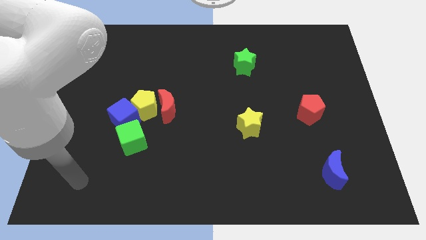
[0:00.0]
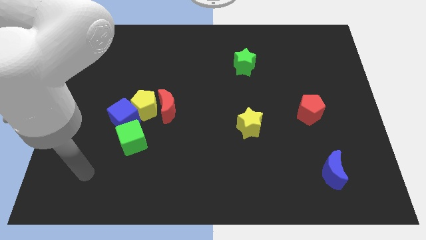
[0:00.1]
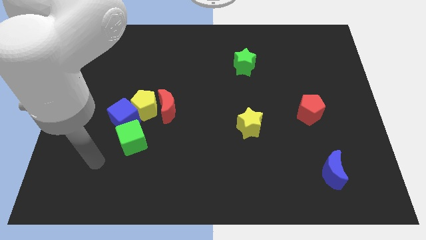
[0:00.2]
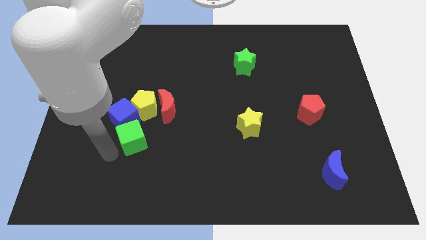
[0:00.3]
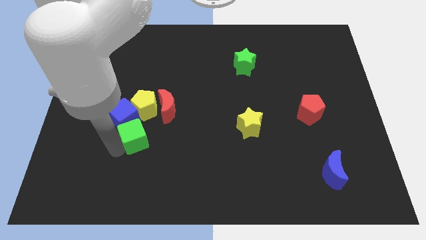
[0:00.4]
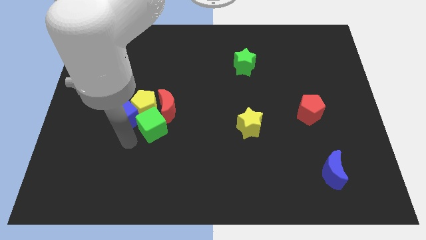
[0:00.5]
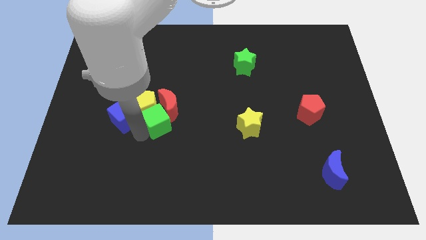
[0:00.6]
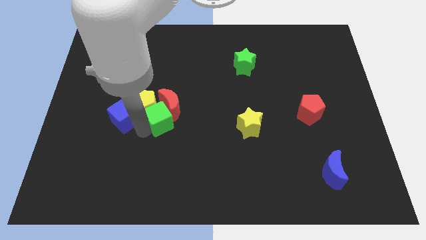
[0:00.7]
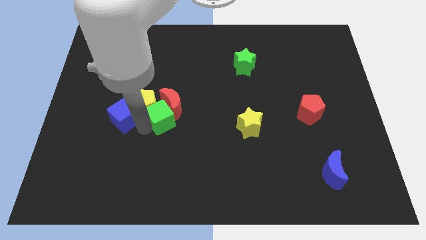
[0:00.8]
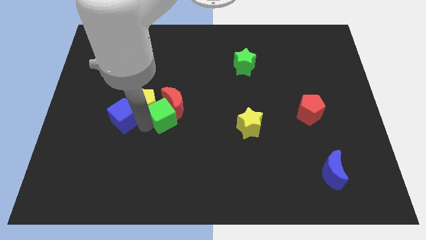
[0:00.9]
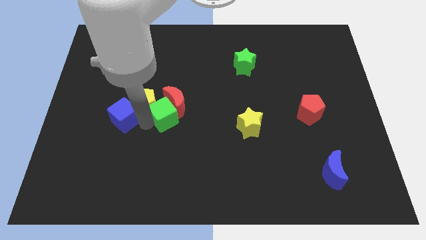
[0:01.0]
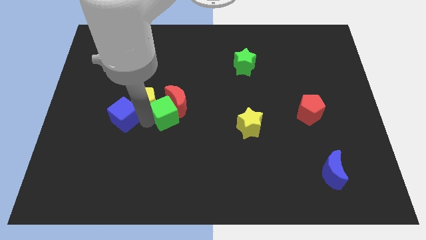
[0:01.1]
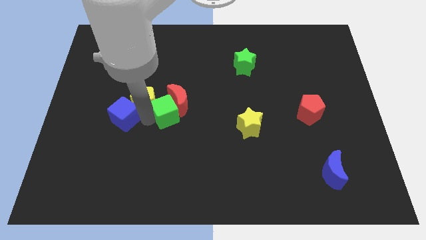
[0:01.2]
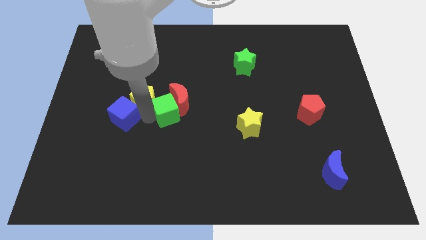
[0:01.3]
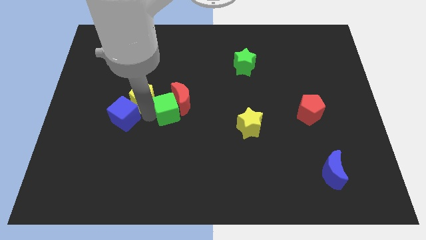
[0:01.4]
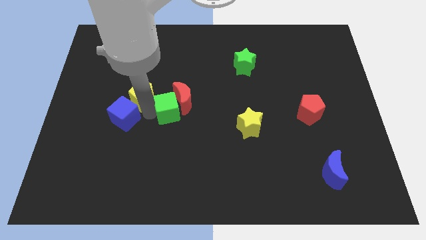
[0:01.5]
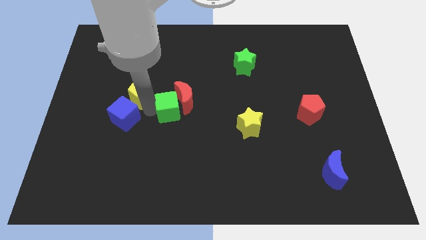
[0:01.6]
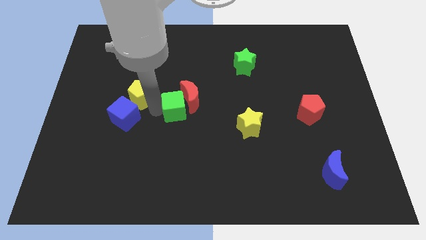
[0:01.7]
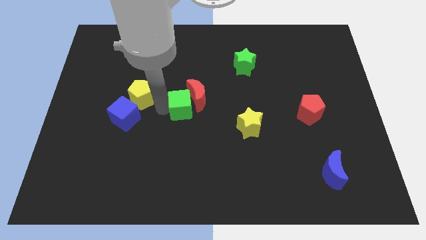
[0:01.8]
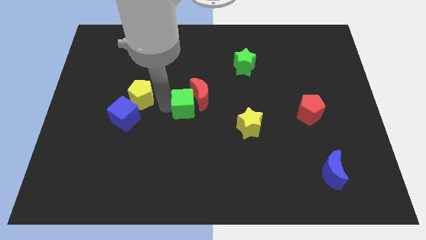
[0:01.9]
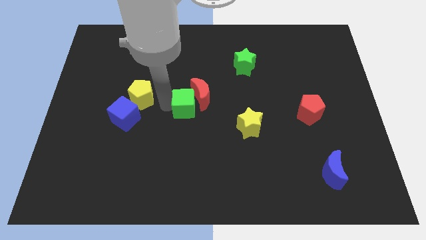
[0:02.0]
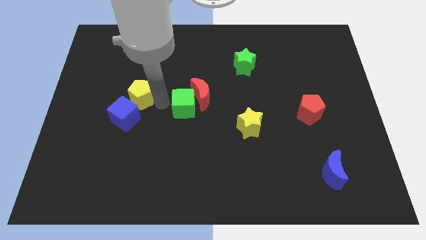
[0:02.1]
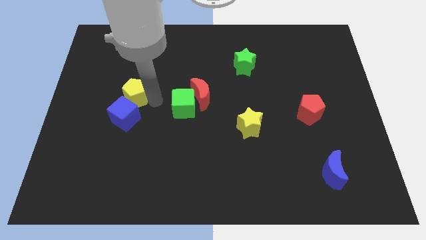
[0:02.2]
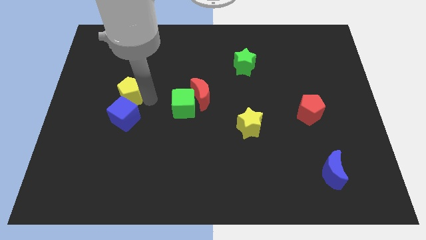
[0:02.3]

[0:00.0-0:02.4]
pull the yellow pentagon apart from the clump

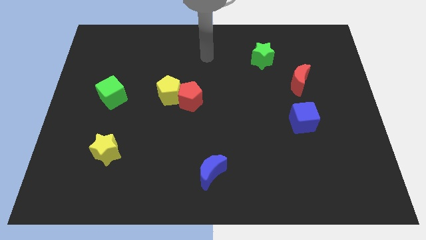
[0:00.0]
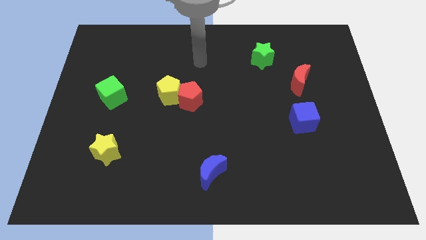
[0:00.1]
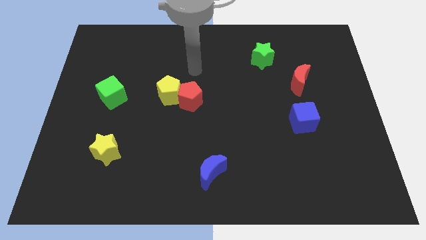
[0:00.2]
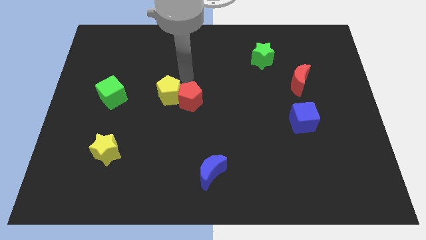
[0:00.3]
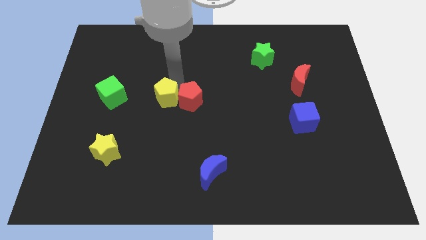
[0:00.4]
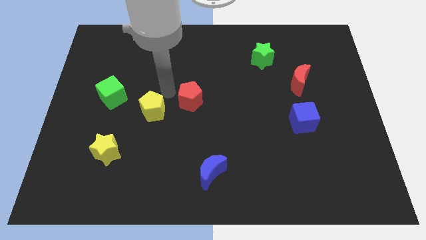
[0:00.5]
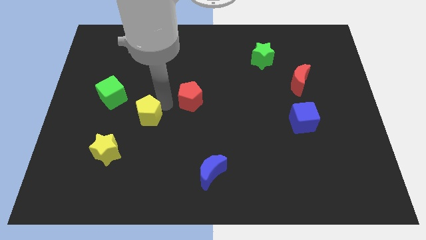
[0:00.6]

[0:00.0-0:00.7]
separate the red pentagon from the yellow pentagon

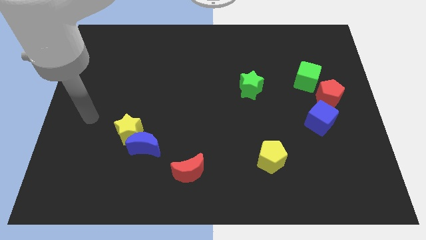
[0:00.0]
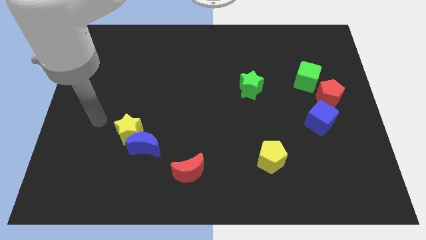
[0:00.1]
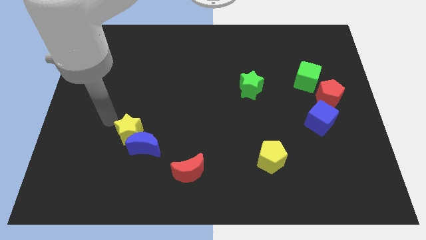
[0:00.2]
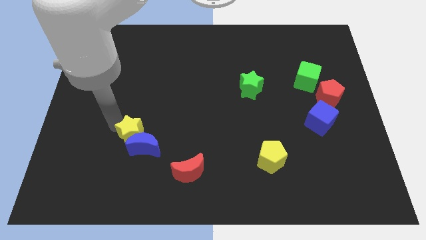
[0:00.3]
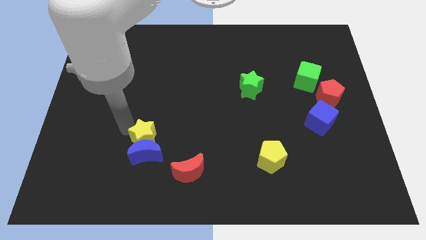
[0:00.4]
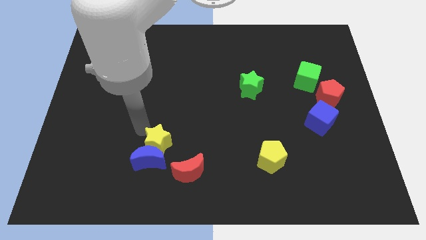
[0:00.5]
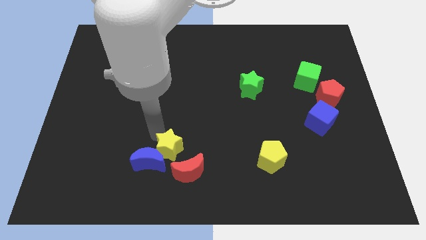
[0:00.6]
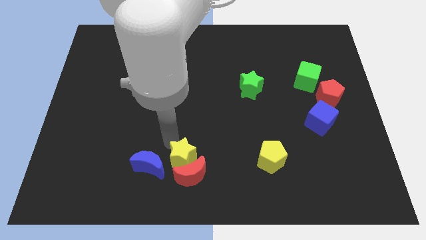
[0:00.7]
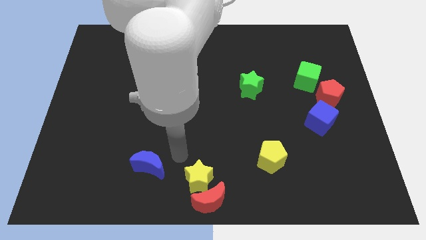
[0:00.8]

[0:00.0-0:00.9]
move the blue moon away from the yellow star

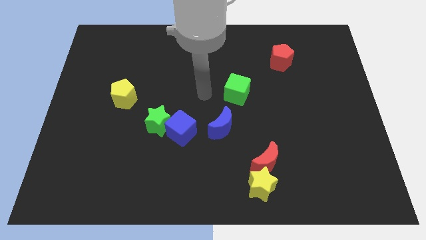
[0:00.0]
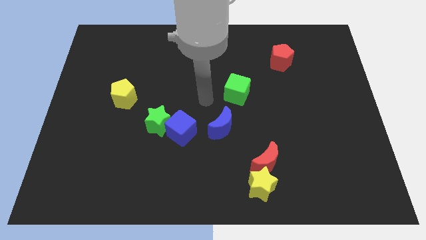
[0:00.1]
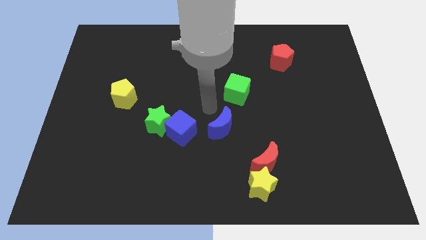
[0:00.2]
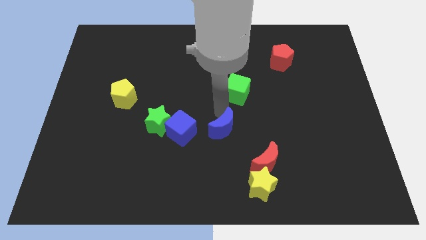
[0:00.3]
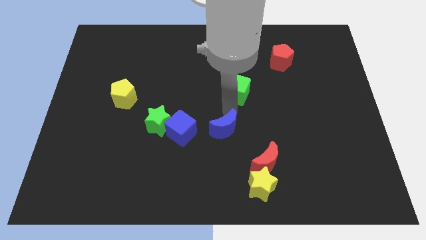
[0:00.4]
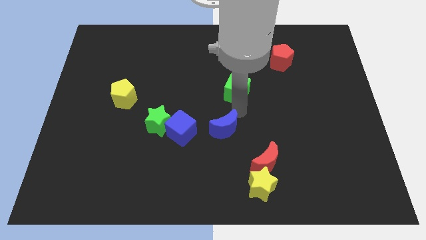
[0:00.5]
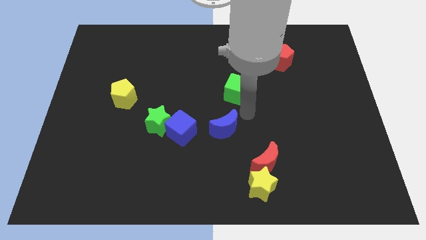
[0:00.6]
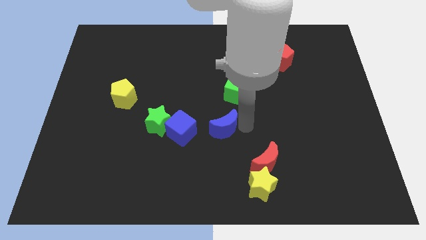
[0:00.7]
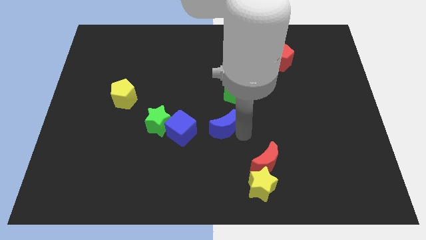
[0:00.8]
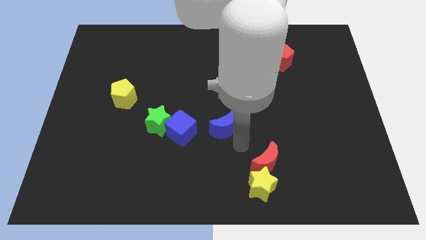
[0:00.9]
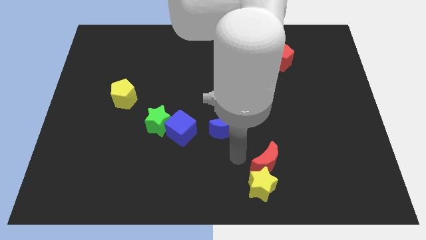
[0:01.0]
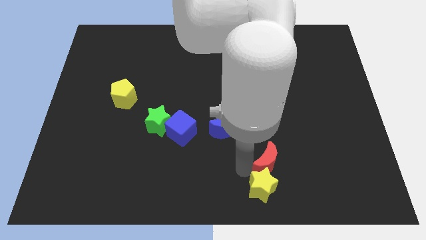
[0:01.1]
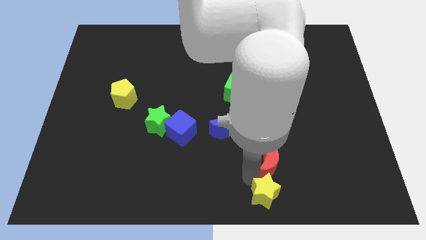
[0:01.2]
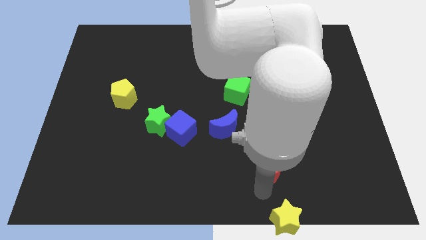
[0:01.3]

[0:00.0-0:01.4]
separate the red moon from the yellow star

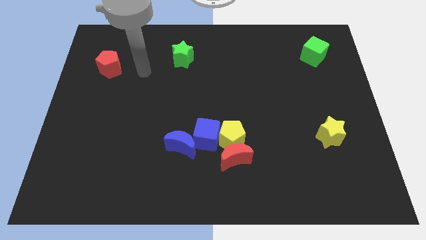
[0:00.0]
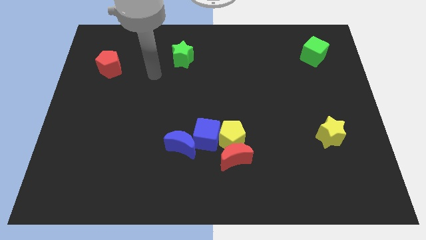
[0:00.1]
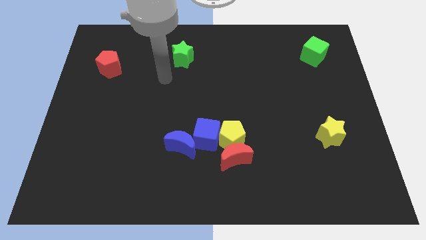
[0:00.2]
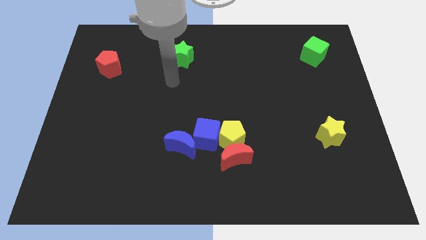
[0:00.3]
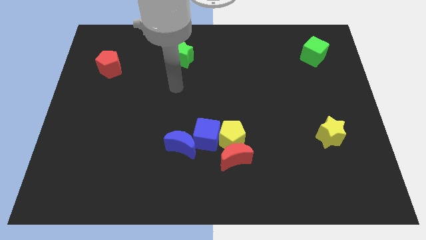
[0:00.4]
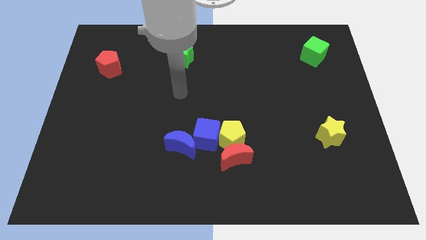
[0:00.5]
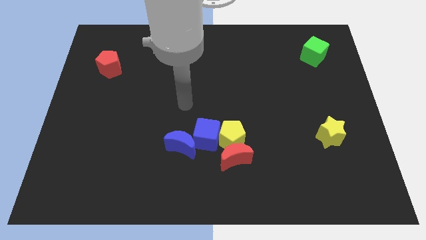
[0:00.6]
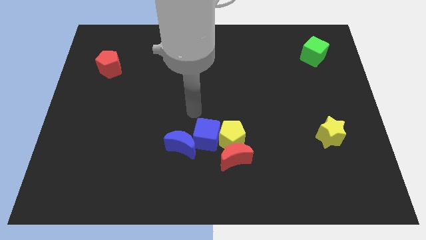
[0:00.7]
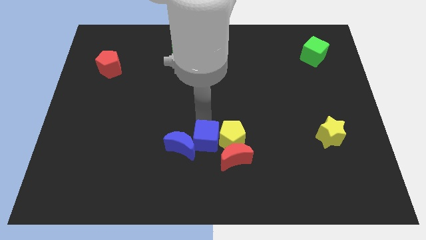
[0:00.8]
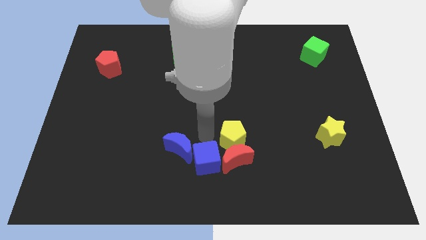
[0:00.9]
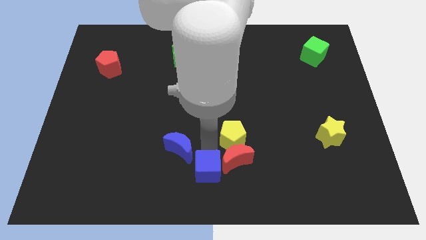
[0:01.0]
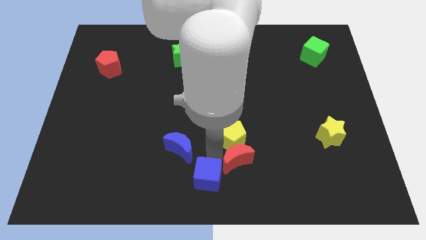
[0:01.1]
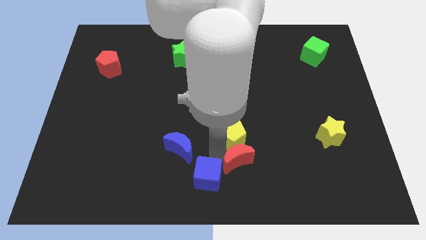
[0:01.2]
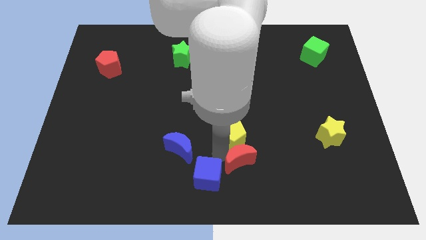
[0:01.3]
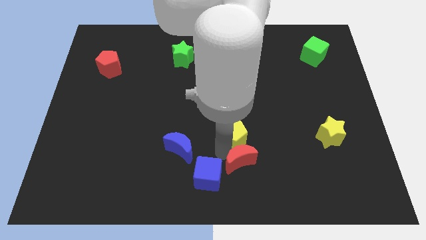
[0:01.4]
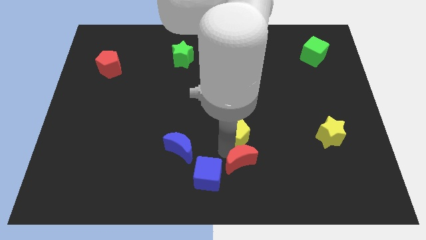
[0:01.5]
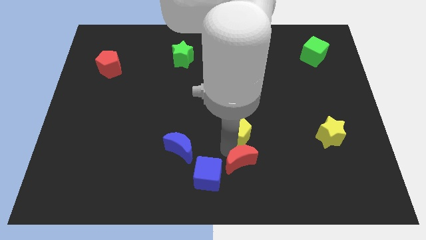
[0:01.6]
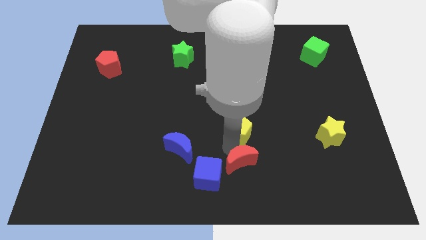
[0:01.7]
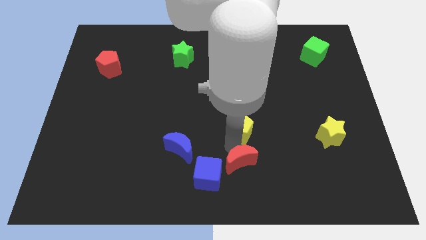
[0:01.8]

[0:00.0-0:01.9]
move the yellow pentagon away from the red moon and blue cube

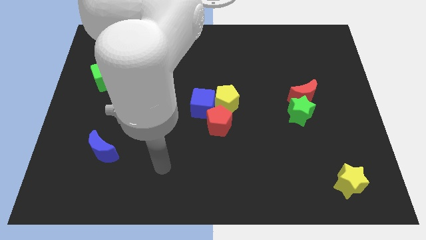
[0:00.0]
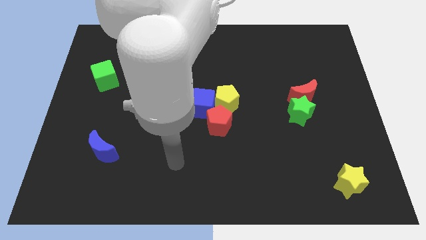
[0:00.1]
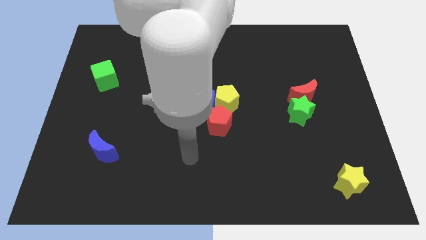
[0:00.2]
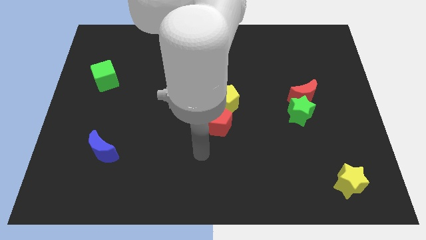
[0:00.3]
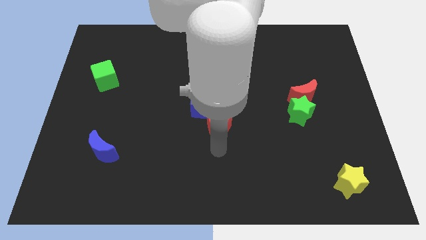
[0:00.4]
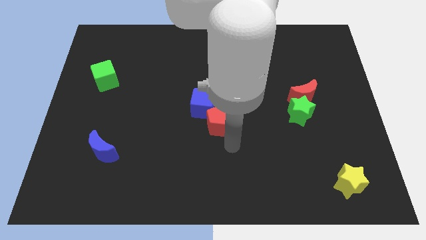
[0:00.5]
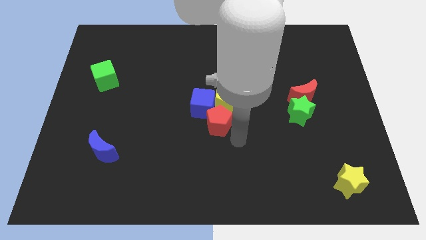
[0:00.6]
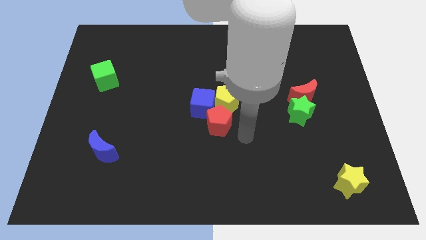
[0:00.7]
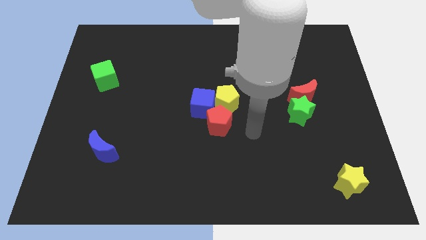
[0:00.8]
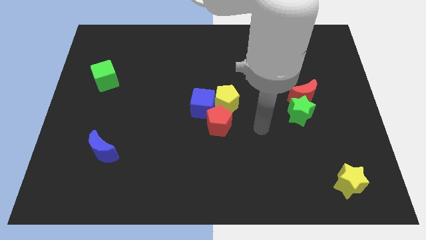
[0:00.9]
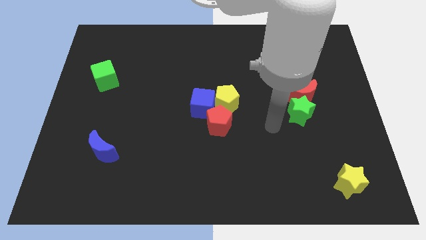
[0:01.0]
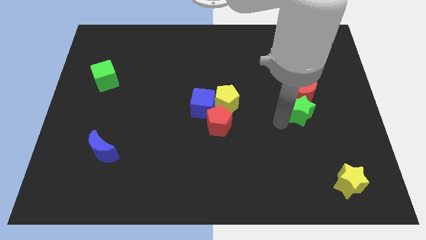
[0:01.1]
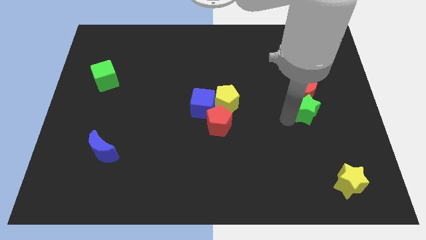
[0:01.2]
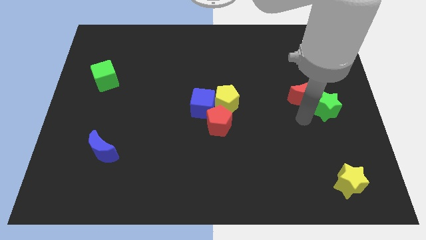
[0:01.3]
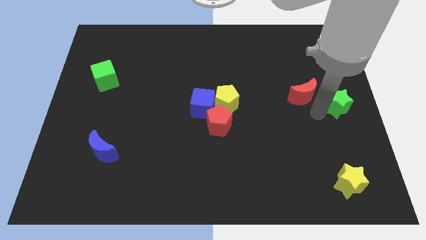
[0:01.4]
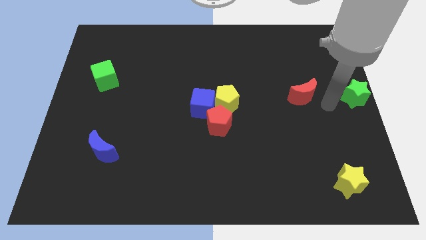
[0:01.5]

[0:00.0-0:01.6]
pull the red moon apart from the green star

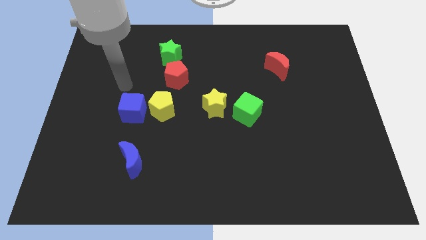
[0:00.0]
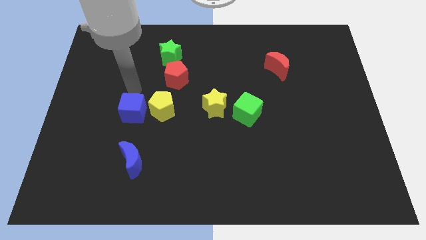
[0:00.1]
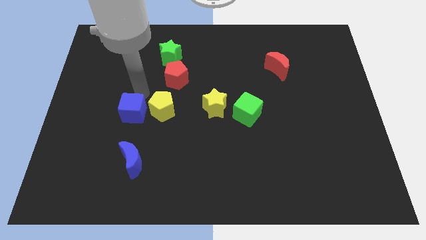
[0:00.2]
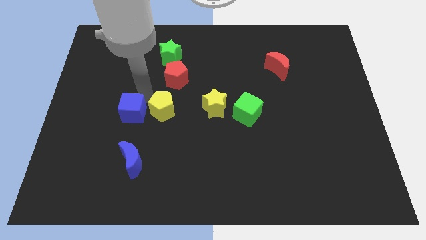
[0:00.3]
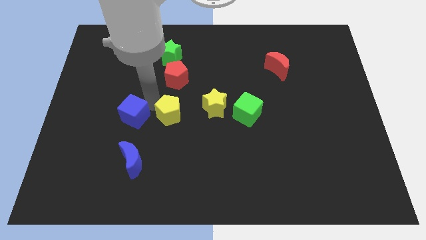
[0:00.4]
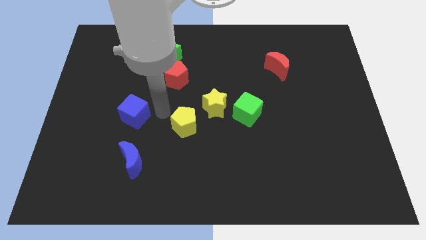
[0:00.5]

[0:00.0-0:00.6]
move the blue cube away from the yellow pentagon
